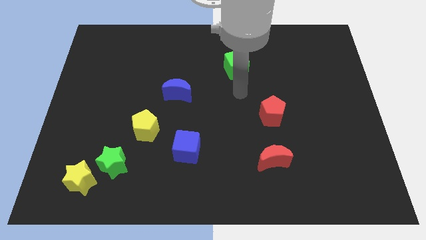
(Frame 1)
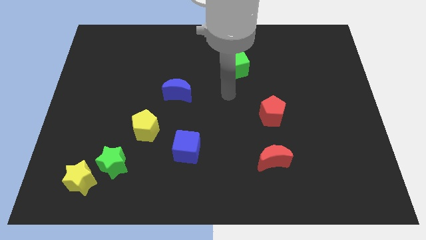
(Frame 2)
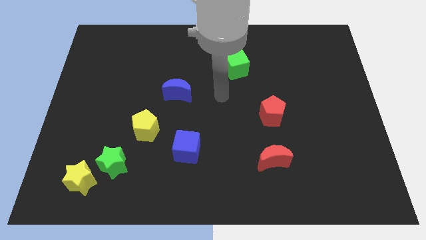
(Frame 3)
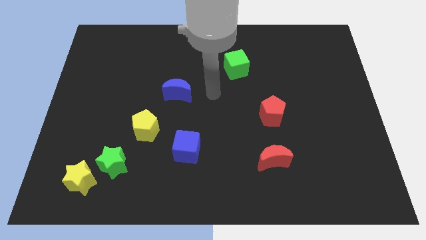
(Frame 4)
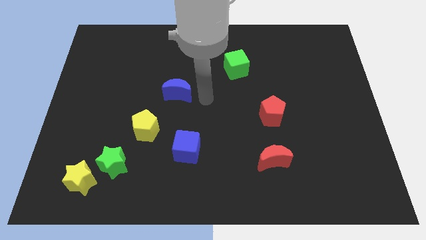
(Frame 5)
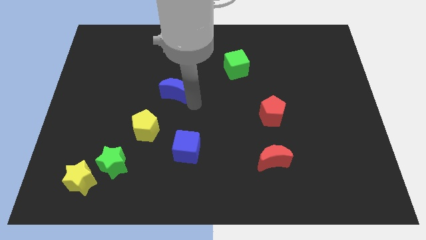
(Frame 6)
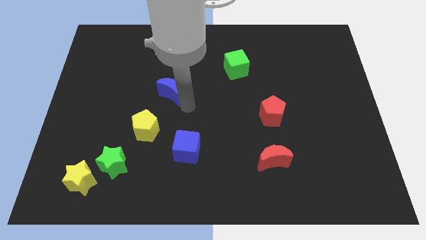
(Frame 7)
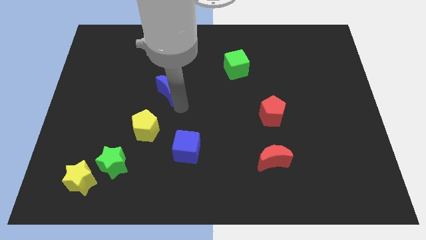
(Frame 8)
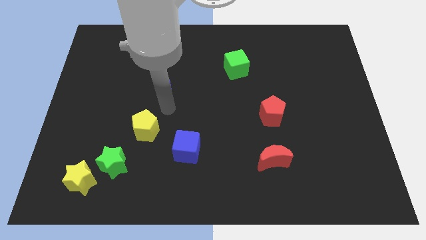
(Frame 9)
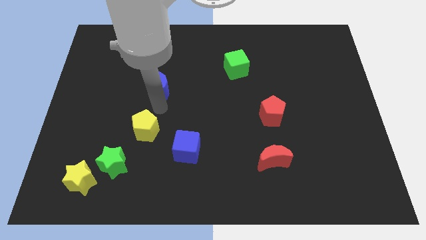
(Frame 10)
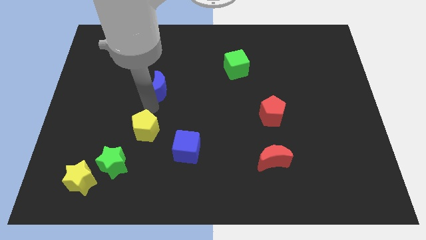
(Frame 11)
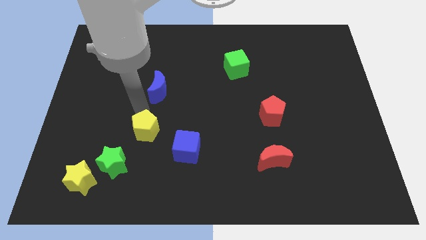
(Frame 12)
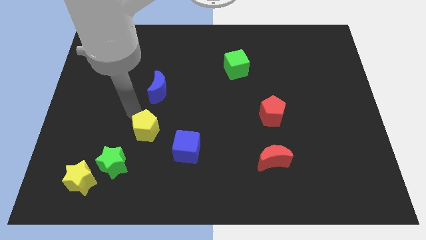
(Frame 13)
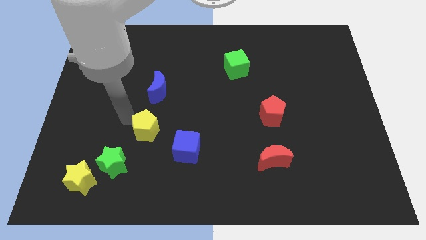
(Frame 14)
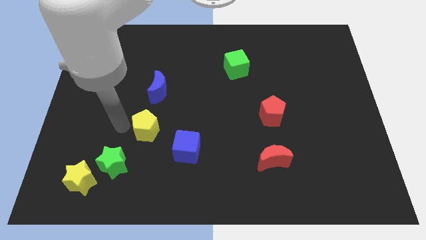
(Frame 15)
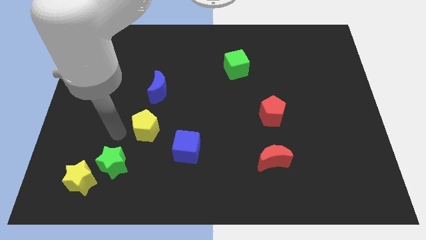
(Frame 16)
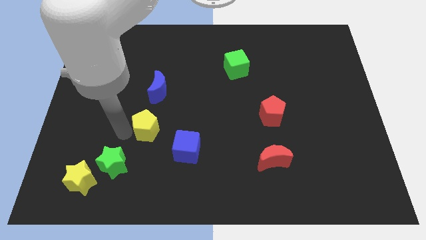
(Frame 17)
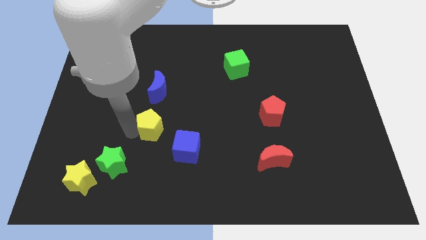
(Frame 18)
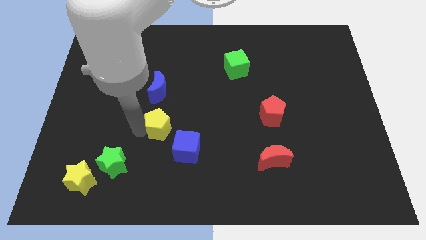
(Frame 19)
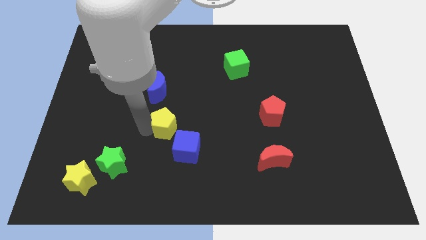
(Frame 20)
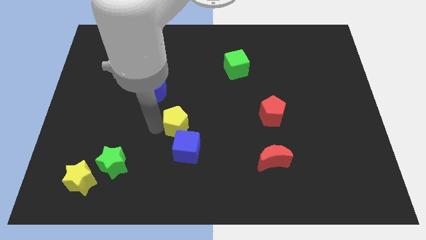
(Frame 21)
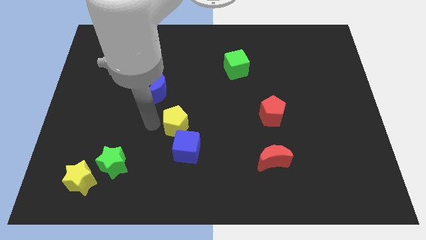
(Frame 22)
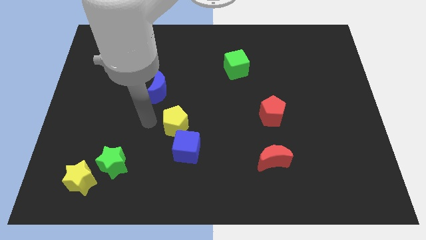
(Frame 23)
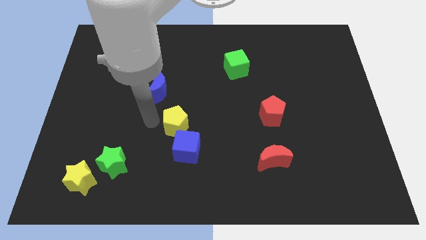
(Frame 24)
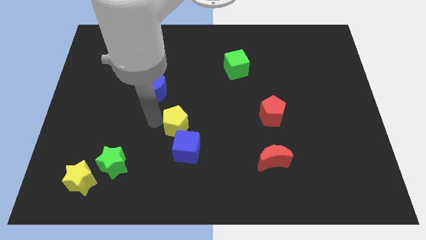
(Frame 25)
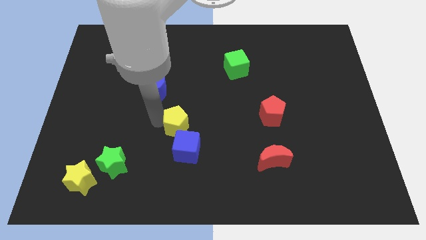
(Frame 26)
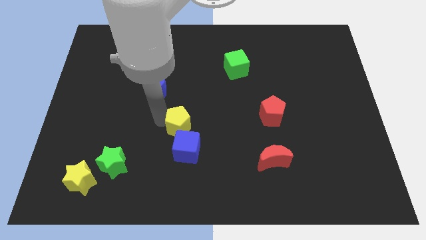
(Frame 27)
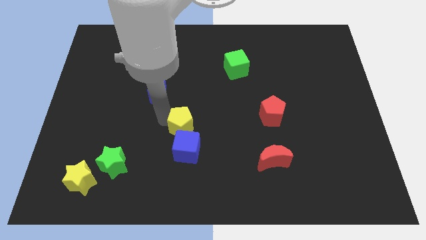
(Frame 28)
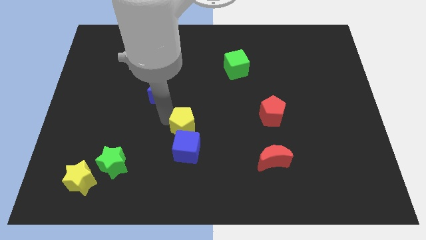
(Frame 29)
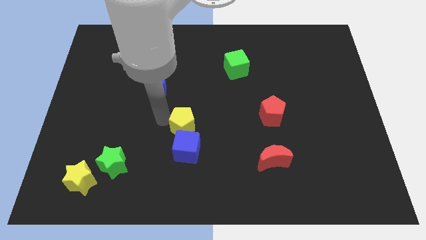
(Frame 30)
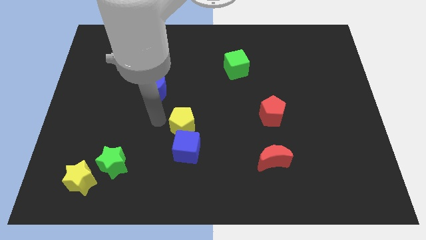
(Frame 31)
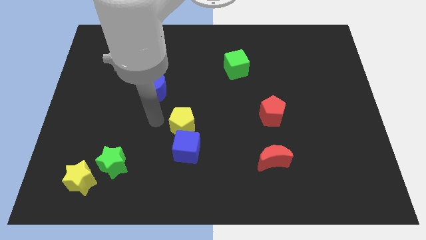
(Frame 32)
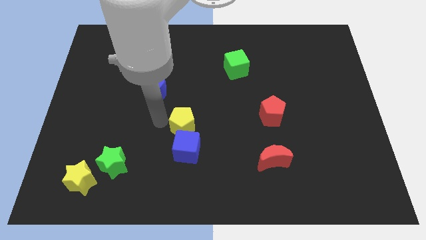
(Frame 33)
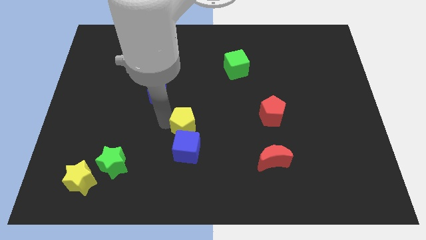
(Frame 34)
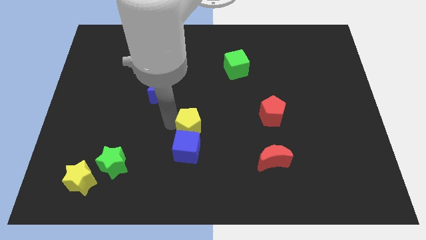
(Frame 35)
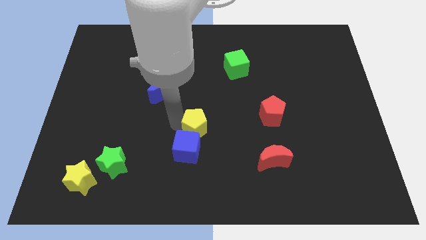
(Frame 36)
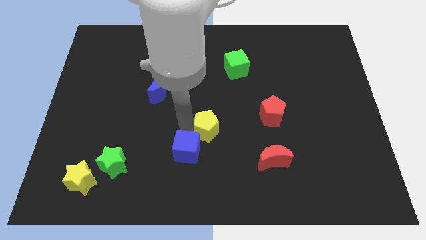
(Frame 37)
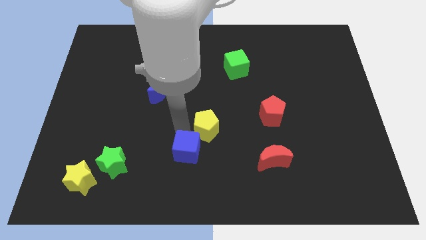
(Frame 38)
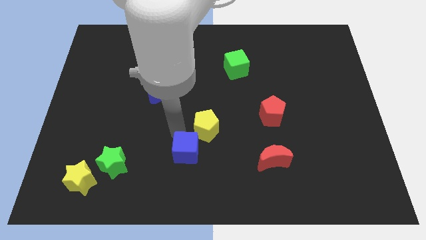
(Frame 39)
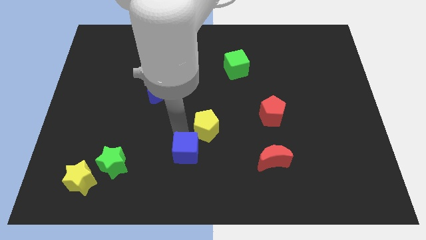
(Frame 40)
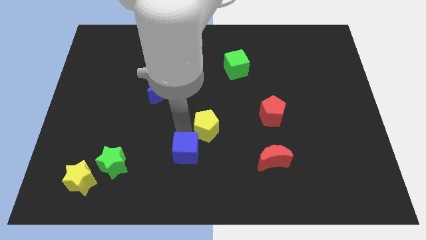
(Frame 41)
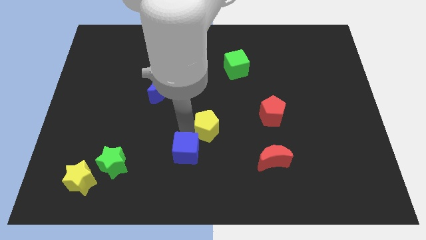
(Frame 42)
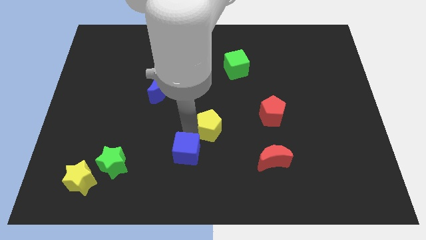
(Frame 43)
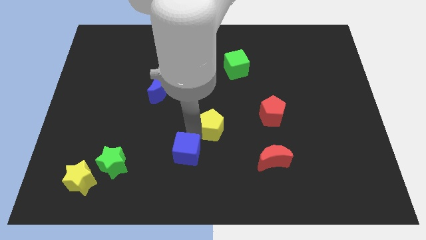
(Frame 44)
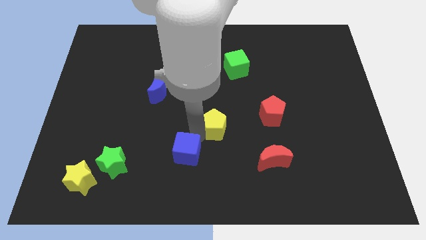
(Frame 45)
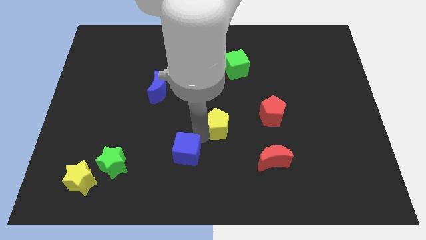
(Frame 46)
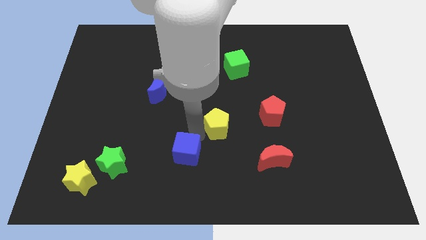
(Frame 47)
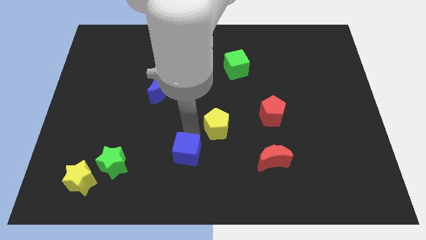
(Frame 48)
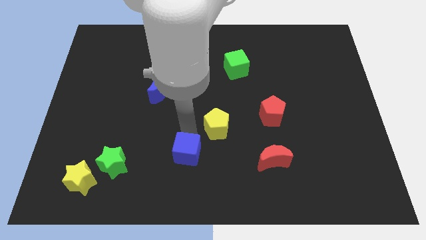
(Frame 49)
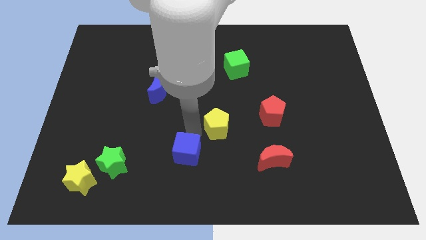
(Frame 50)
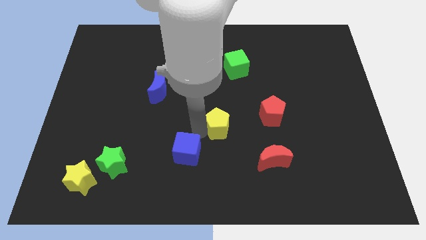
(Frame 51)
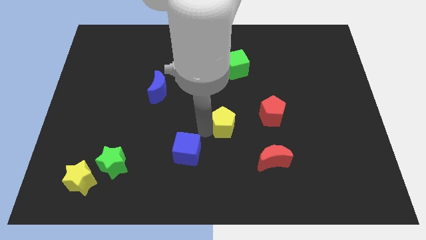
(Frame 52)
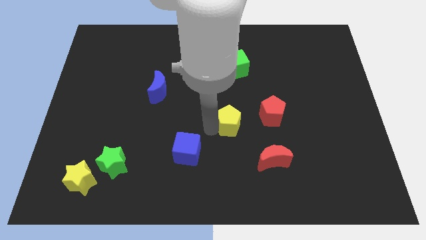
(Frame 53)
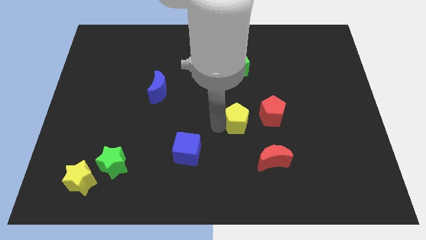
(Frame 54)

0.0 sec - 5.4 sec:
move the yellow pentagon right

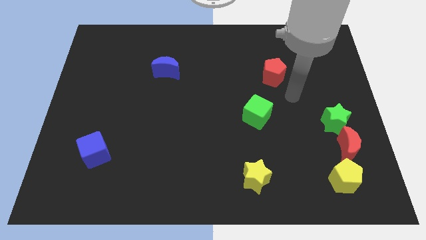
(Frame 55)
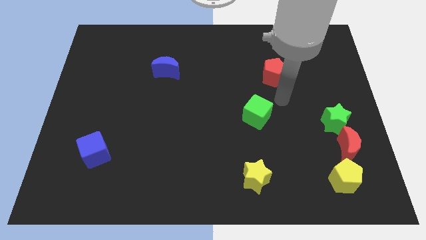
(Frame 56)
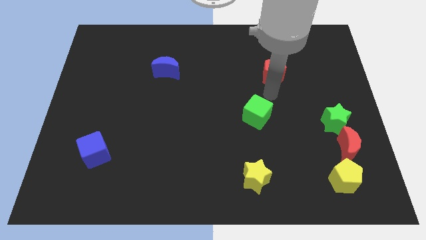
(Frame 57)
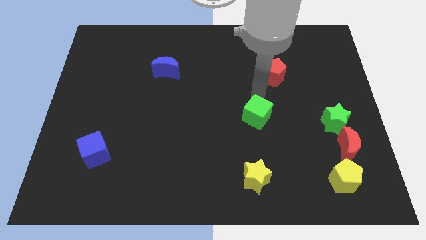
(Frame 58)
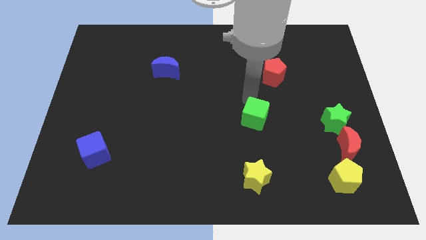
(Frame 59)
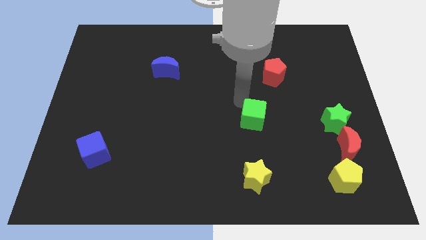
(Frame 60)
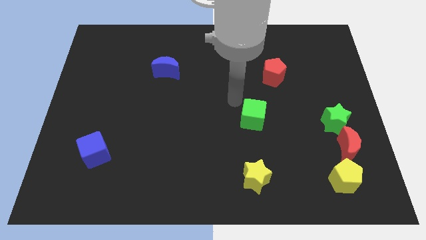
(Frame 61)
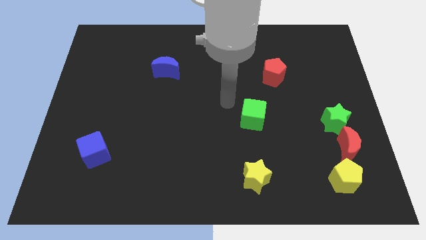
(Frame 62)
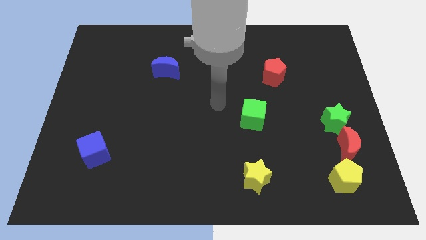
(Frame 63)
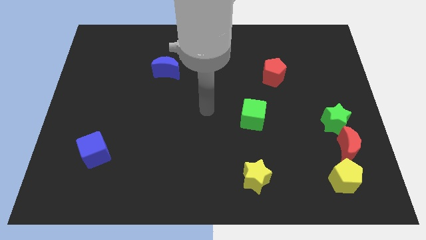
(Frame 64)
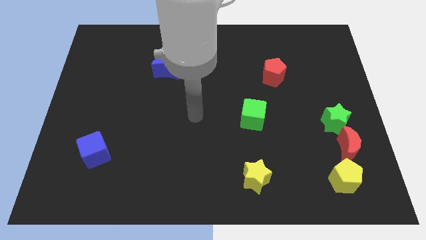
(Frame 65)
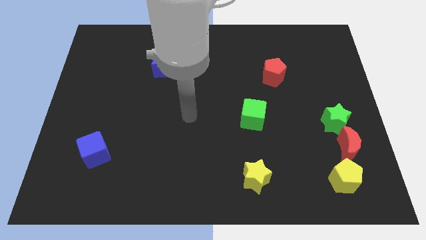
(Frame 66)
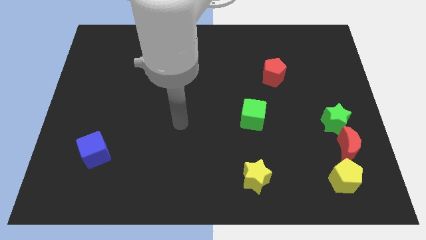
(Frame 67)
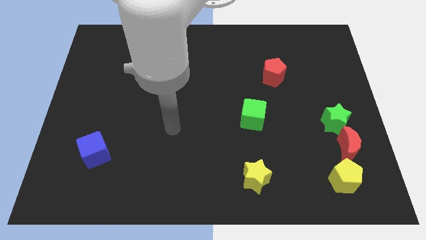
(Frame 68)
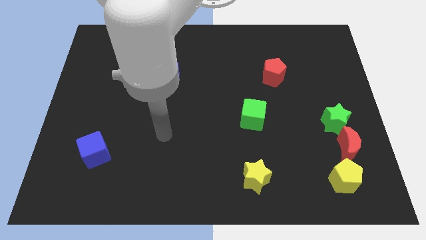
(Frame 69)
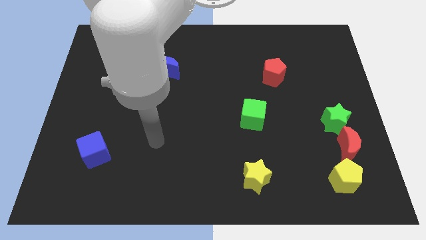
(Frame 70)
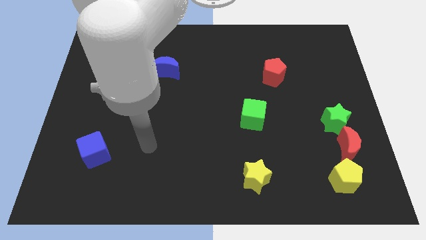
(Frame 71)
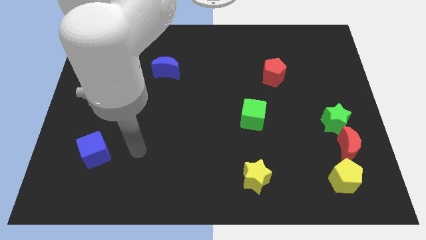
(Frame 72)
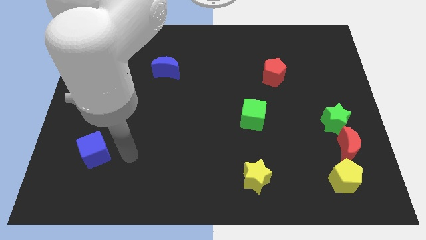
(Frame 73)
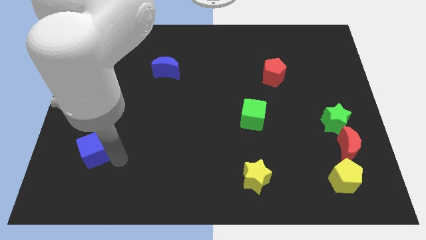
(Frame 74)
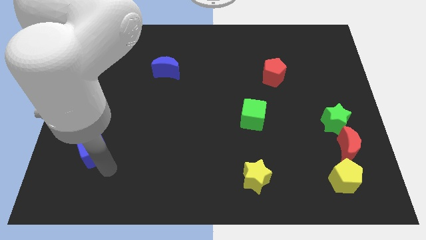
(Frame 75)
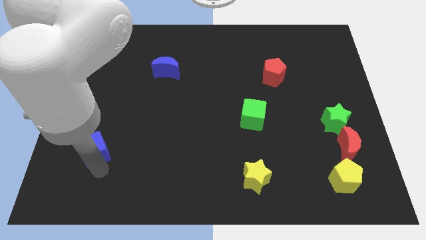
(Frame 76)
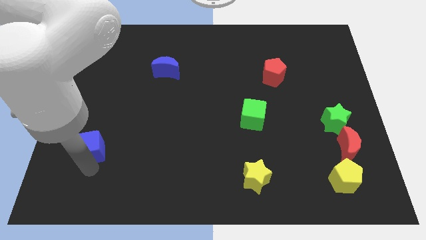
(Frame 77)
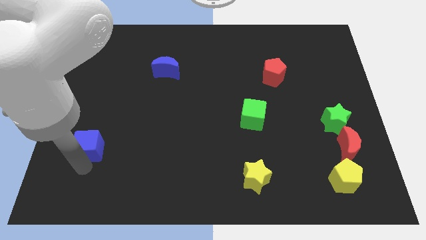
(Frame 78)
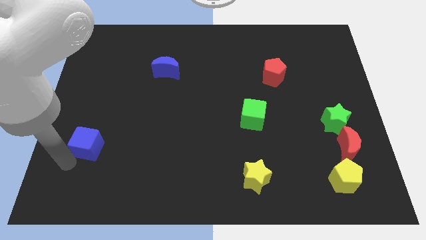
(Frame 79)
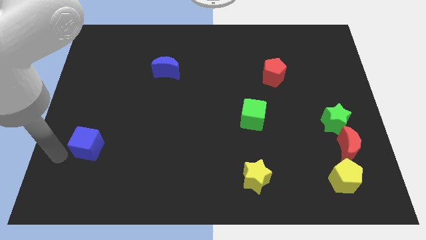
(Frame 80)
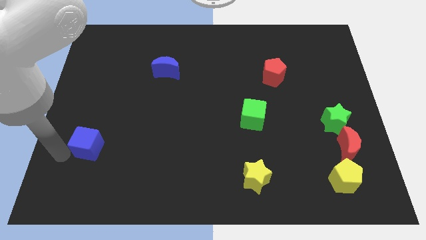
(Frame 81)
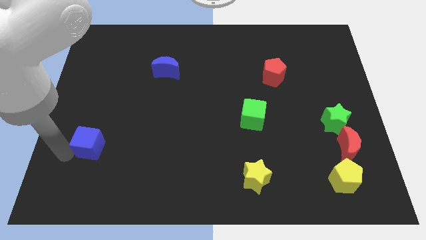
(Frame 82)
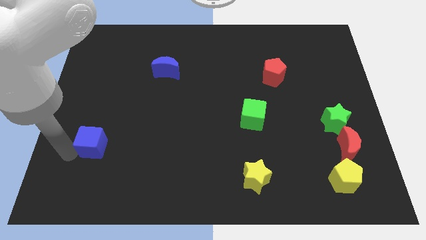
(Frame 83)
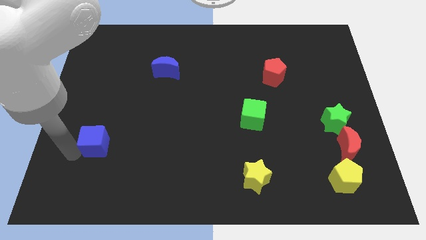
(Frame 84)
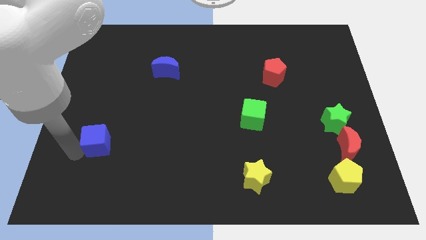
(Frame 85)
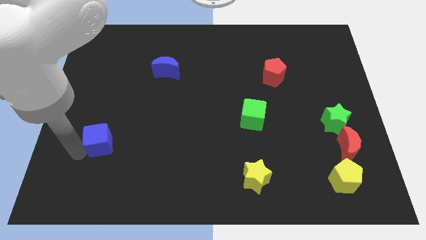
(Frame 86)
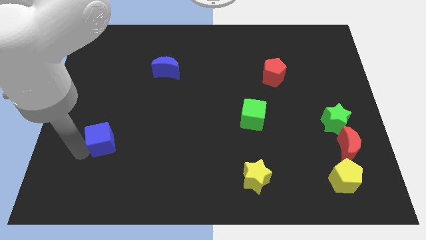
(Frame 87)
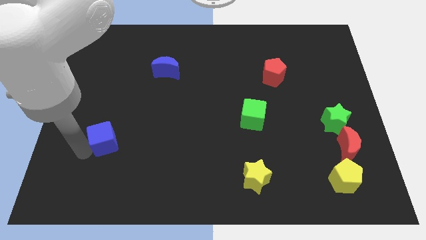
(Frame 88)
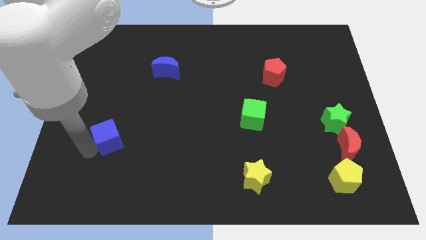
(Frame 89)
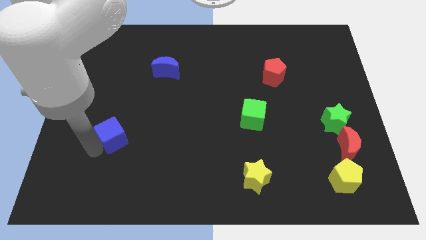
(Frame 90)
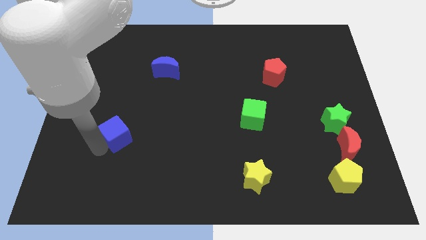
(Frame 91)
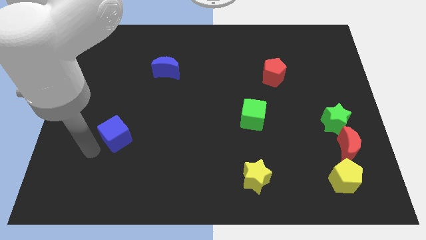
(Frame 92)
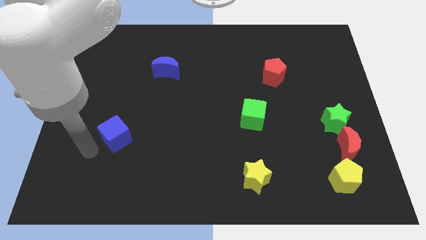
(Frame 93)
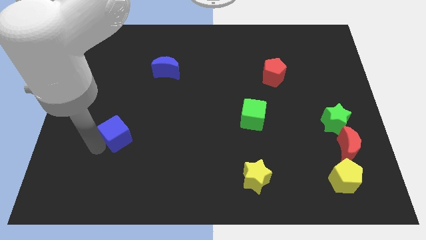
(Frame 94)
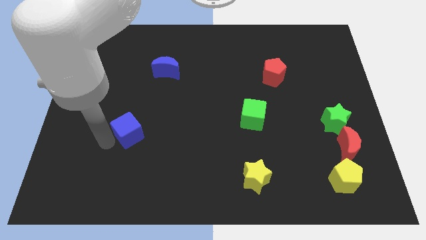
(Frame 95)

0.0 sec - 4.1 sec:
push the blue cube diagonally up and to the right slightly
